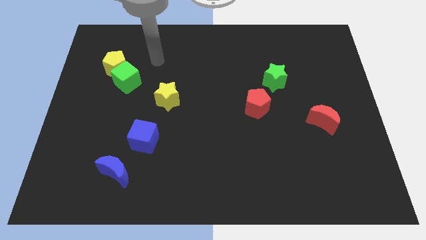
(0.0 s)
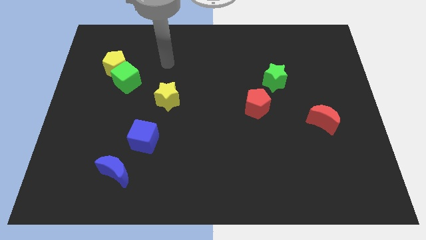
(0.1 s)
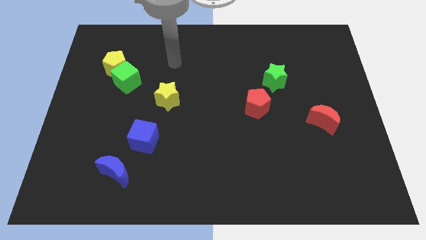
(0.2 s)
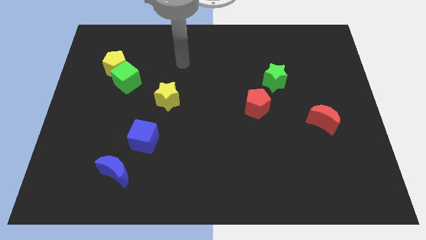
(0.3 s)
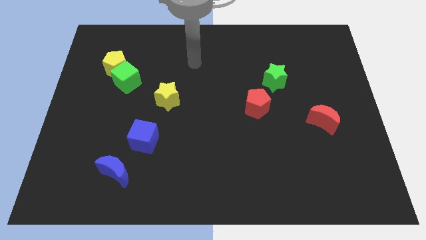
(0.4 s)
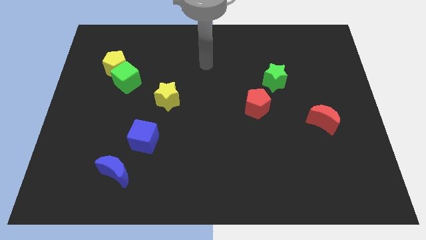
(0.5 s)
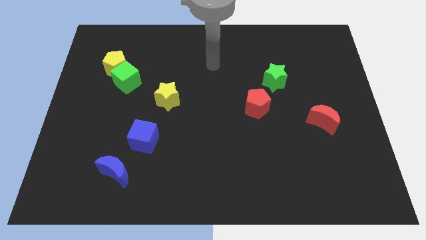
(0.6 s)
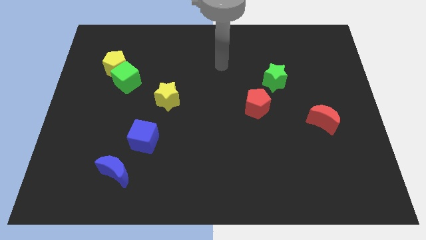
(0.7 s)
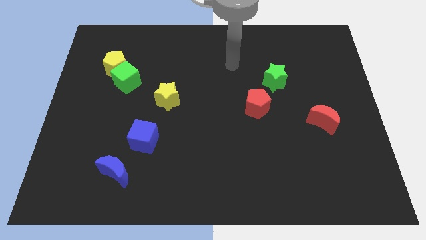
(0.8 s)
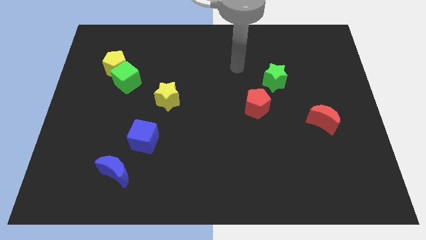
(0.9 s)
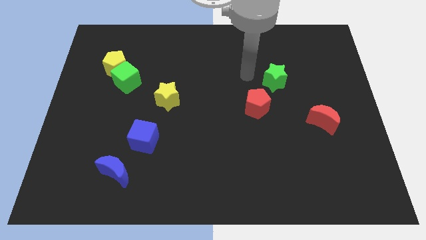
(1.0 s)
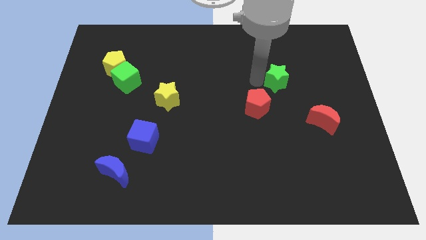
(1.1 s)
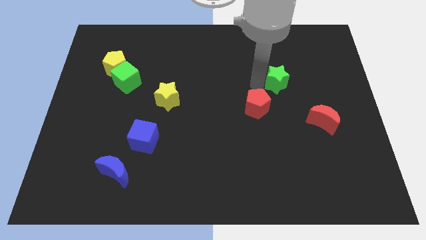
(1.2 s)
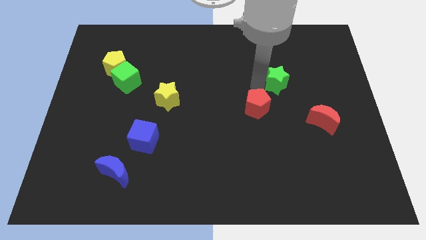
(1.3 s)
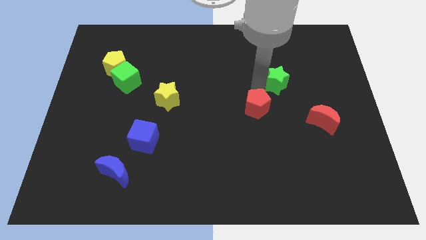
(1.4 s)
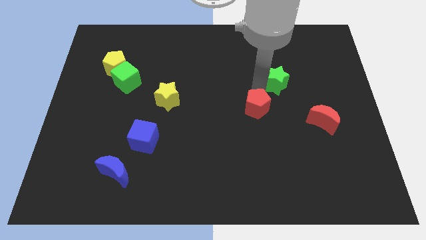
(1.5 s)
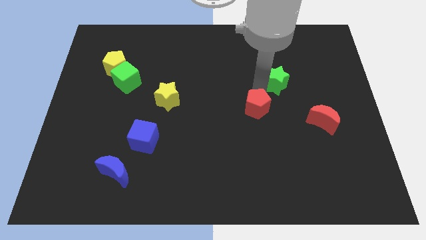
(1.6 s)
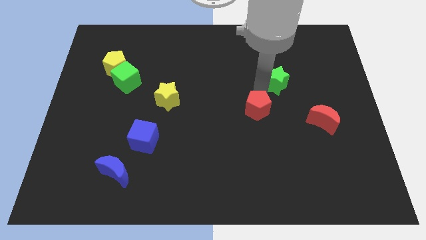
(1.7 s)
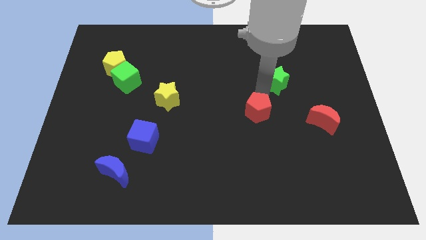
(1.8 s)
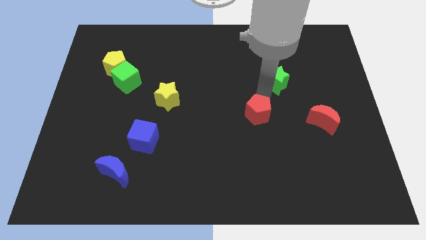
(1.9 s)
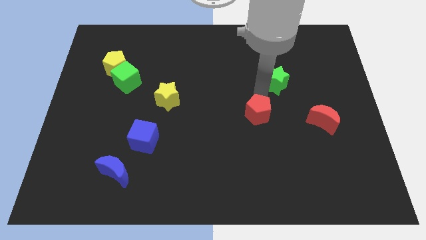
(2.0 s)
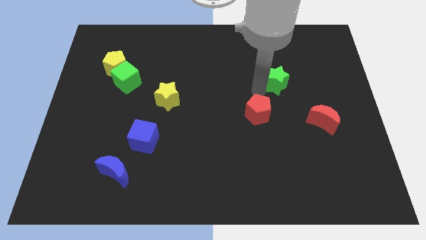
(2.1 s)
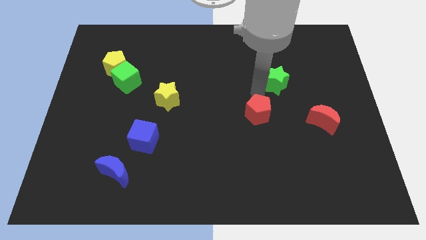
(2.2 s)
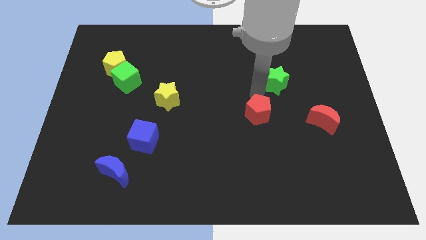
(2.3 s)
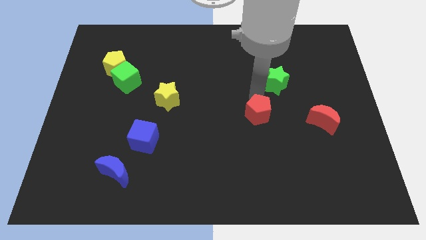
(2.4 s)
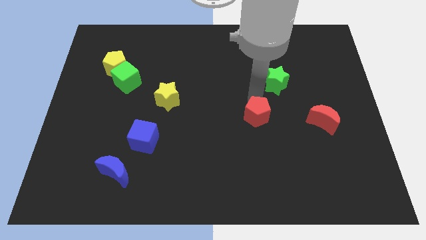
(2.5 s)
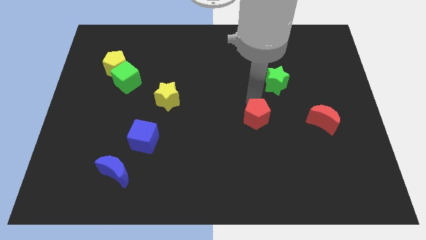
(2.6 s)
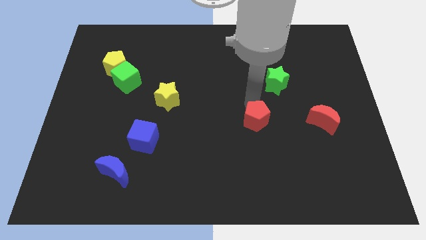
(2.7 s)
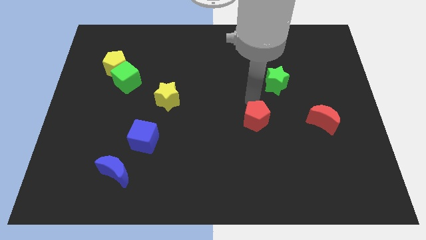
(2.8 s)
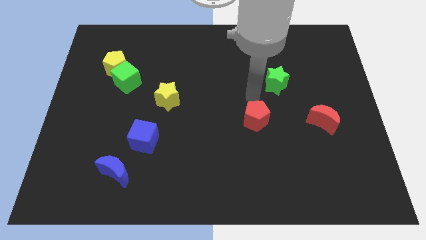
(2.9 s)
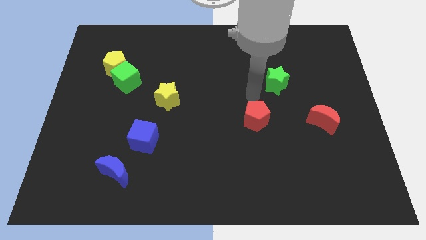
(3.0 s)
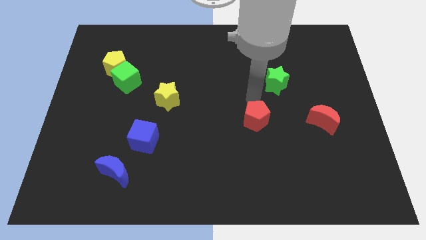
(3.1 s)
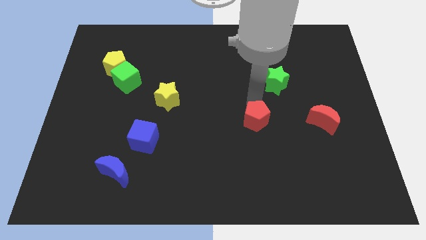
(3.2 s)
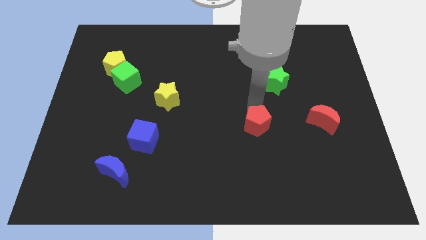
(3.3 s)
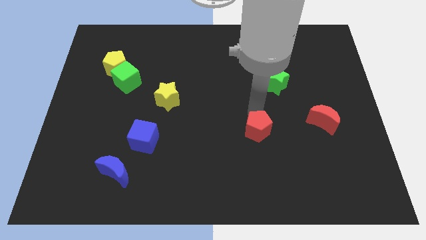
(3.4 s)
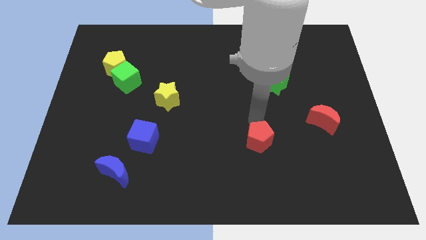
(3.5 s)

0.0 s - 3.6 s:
slightly push the red pentagon down

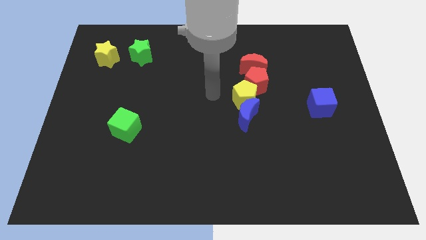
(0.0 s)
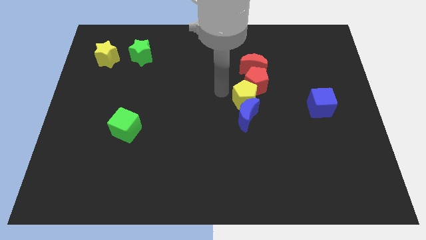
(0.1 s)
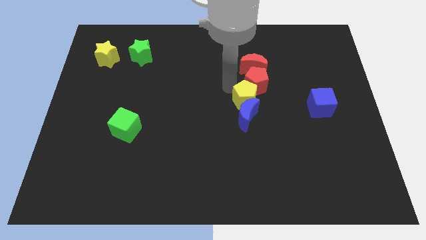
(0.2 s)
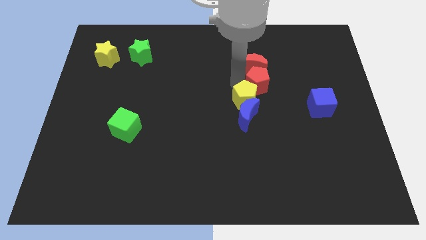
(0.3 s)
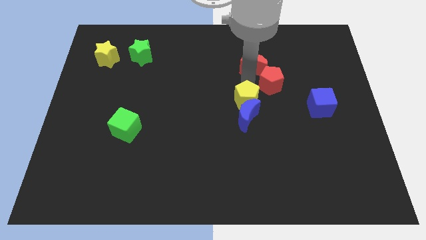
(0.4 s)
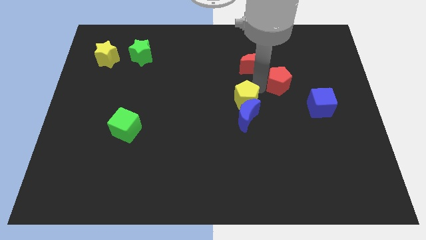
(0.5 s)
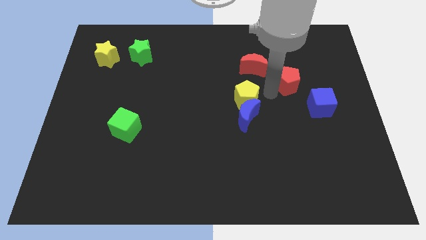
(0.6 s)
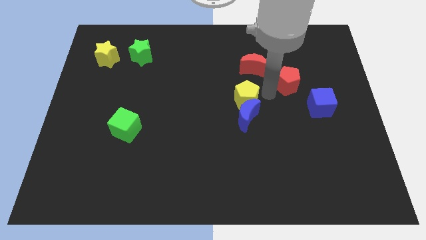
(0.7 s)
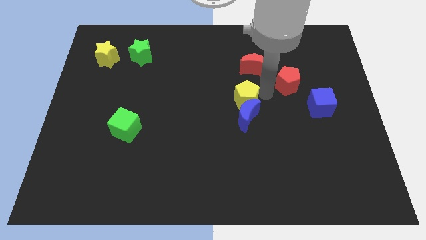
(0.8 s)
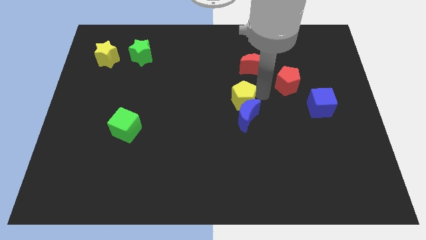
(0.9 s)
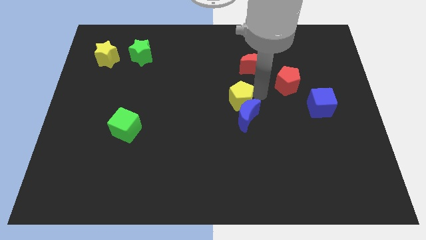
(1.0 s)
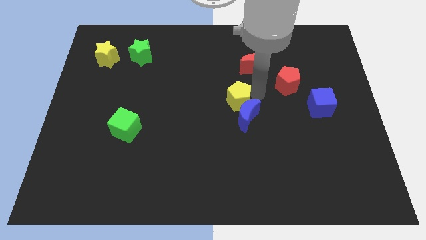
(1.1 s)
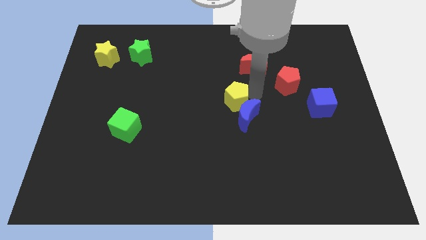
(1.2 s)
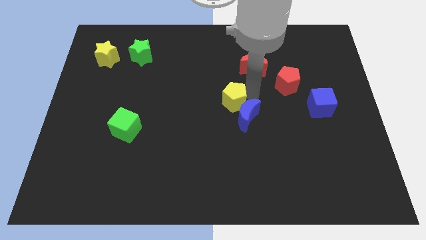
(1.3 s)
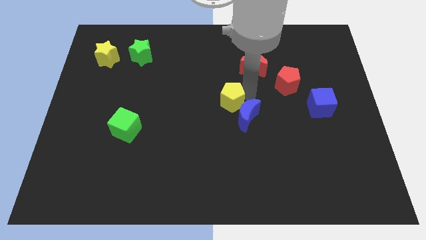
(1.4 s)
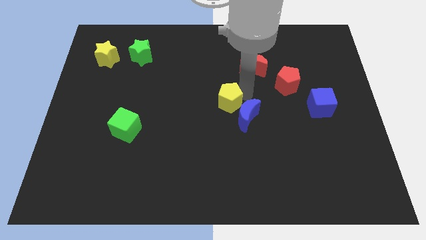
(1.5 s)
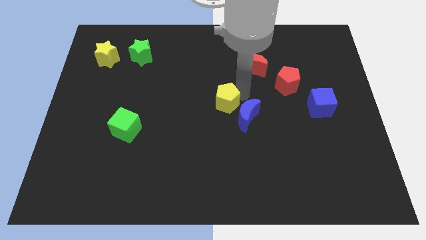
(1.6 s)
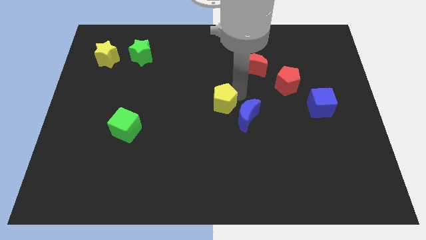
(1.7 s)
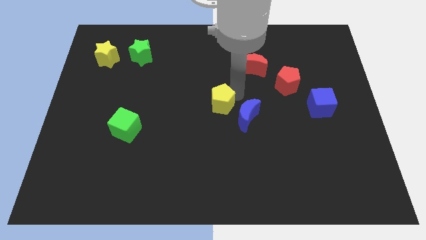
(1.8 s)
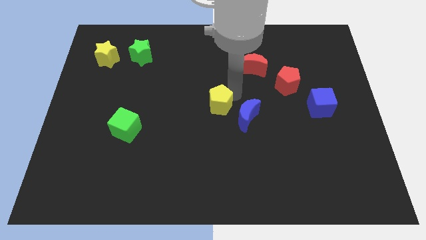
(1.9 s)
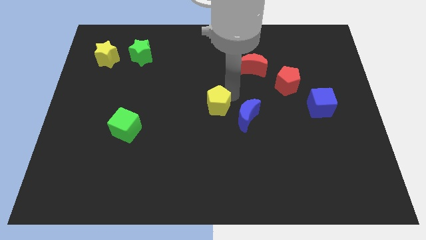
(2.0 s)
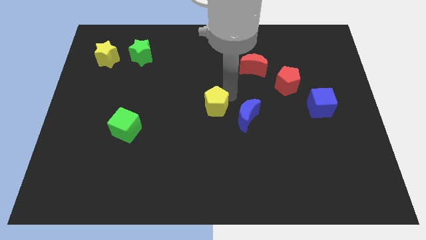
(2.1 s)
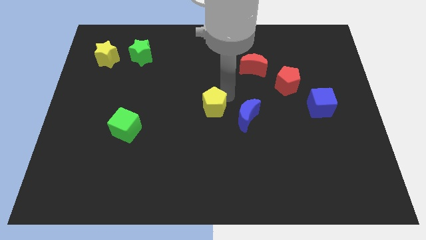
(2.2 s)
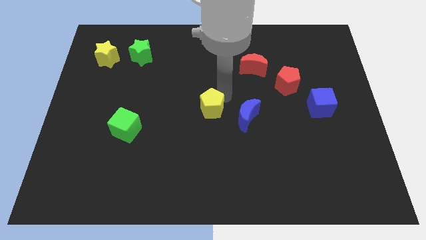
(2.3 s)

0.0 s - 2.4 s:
push the yellow pentagon diagonally downwards and left somewhat

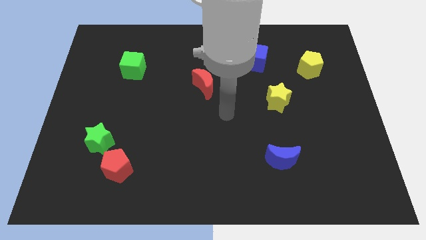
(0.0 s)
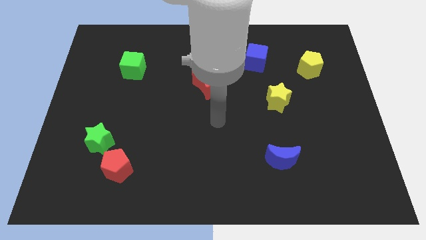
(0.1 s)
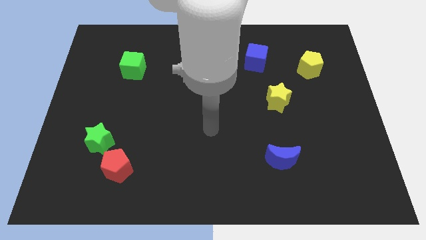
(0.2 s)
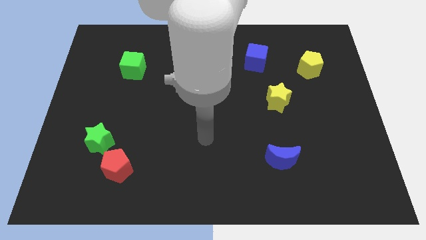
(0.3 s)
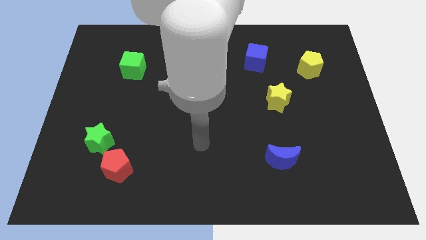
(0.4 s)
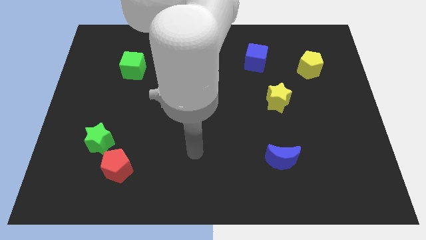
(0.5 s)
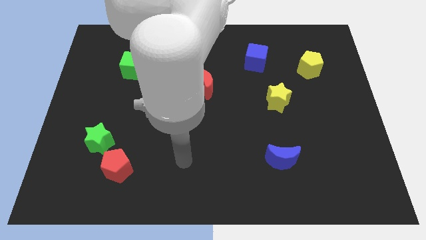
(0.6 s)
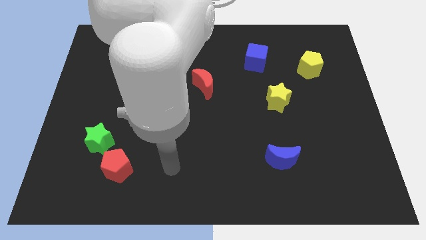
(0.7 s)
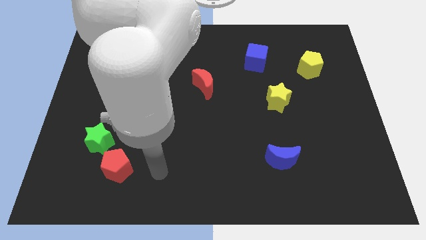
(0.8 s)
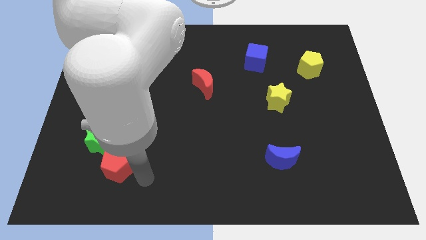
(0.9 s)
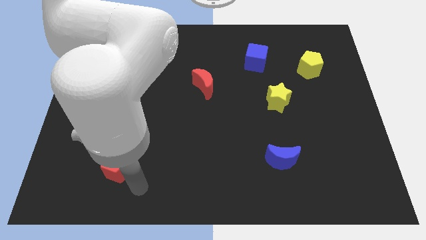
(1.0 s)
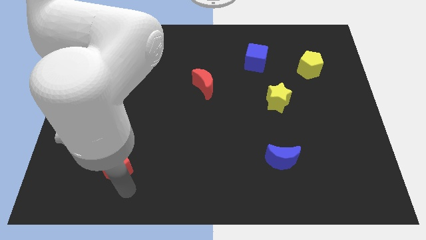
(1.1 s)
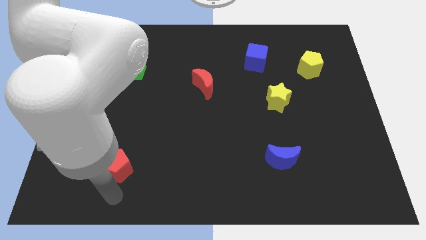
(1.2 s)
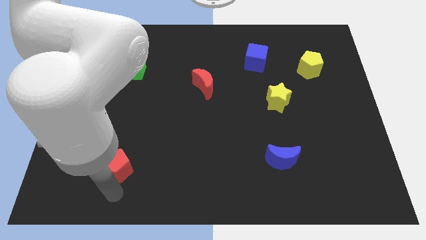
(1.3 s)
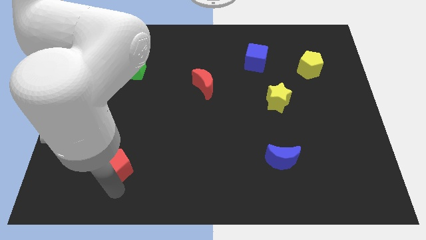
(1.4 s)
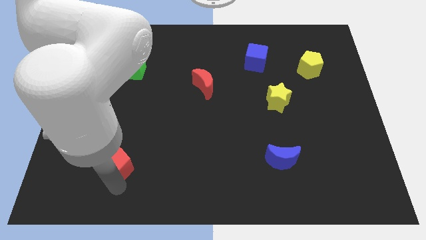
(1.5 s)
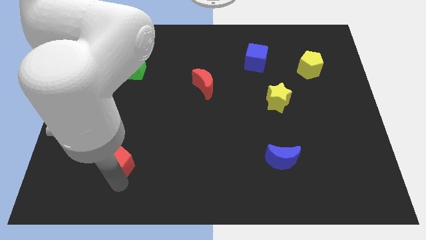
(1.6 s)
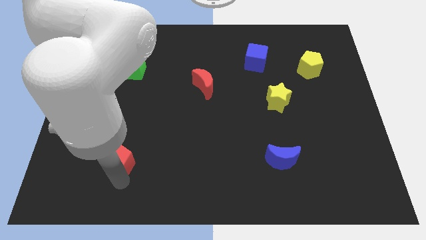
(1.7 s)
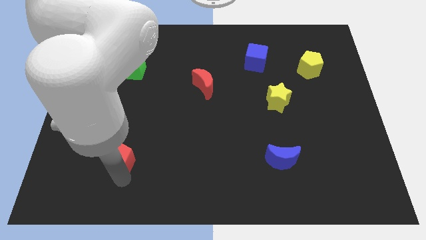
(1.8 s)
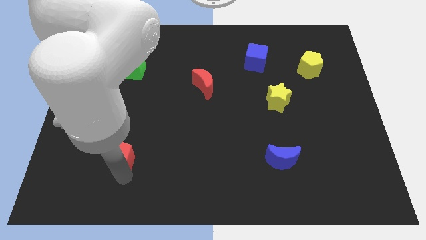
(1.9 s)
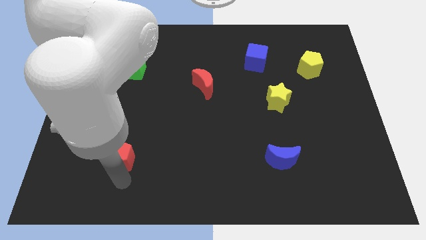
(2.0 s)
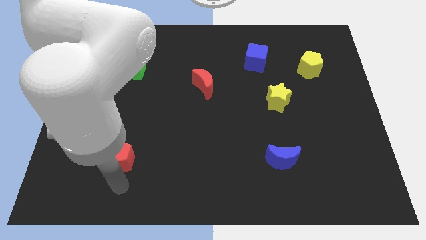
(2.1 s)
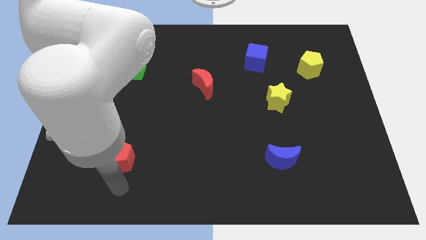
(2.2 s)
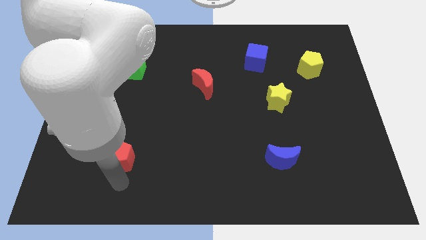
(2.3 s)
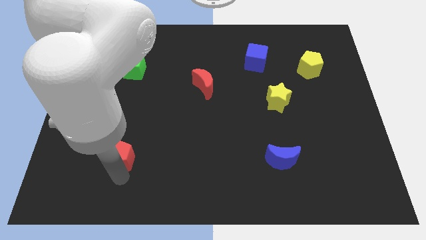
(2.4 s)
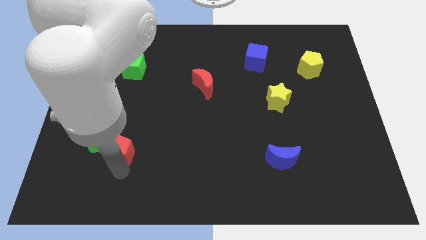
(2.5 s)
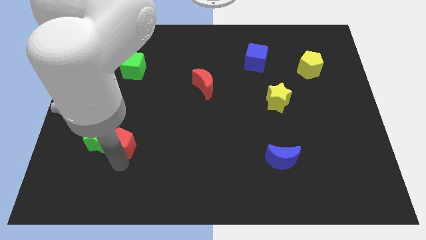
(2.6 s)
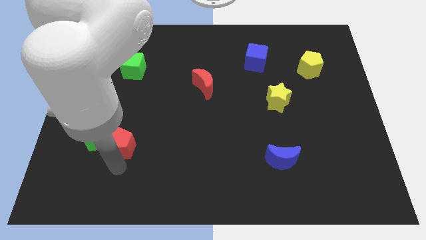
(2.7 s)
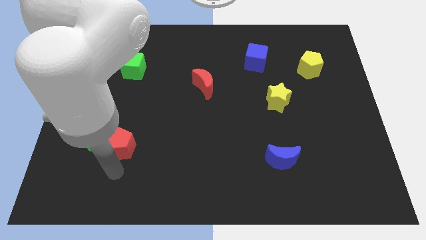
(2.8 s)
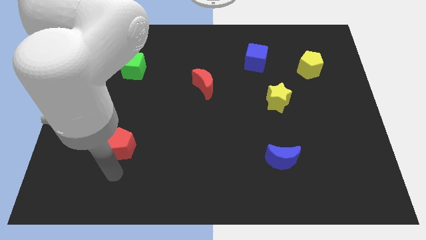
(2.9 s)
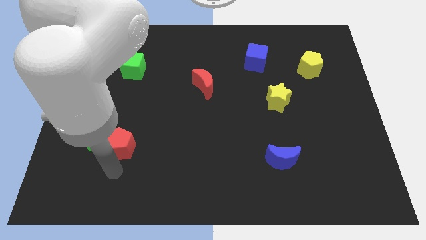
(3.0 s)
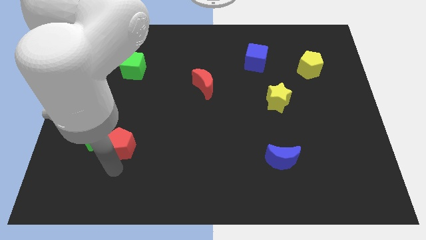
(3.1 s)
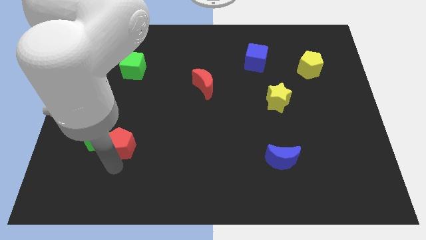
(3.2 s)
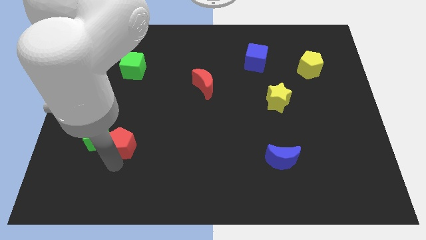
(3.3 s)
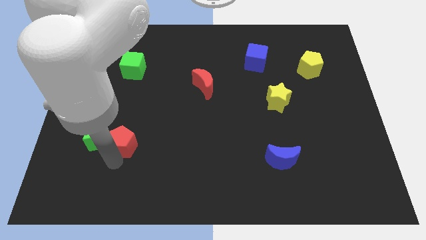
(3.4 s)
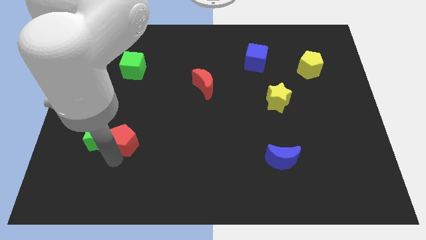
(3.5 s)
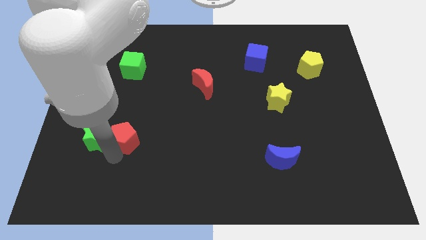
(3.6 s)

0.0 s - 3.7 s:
slide the red pentagon up slightly
